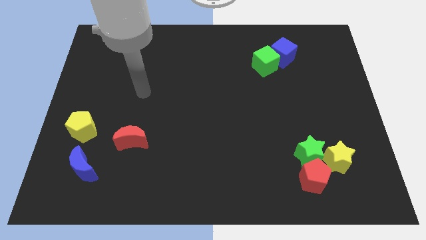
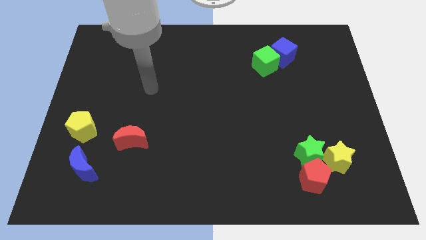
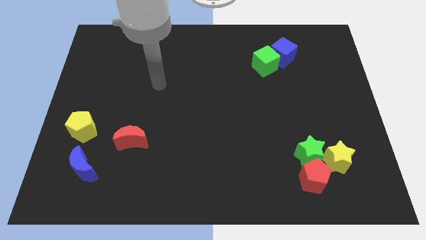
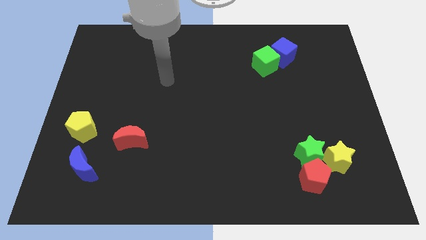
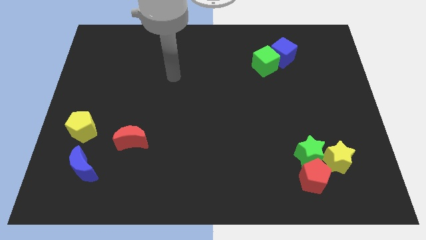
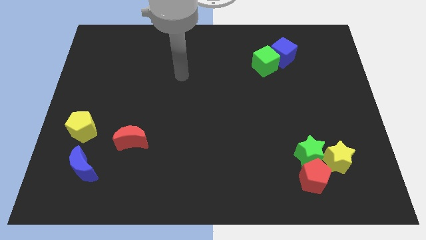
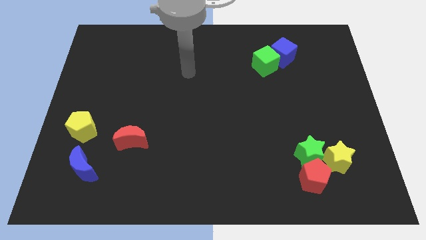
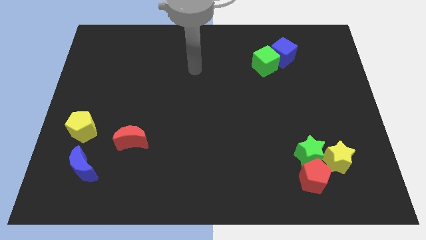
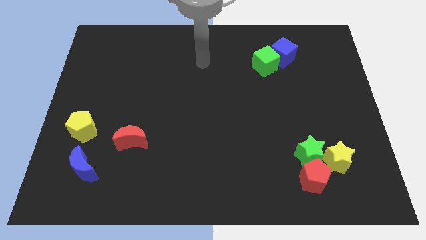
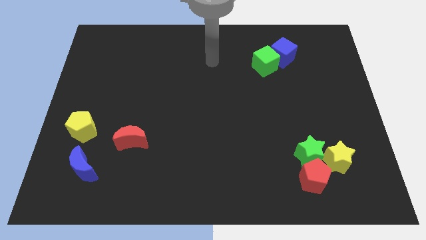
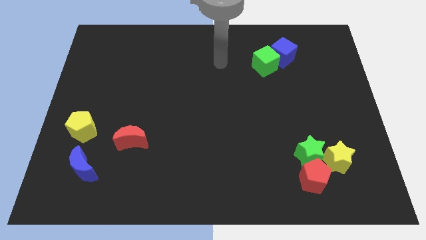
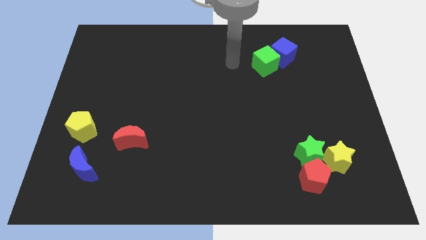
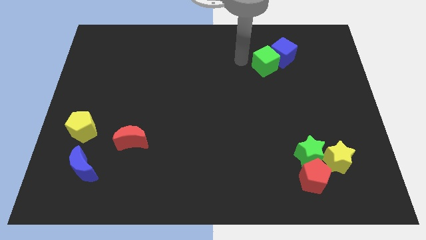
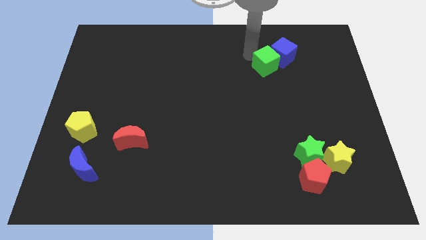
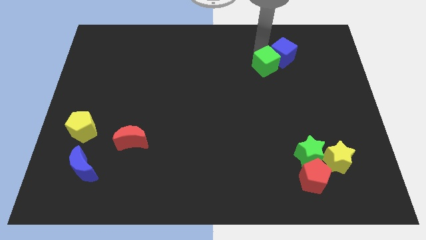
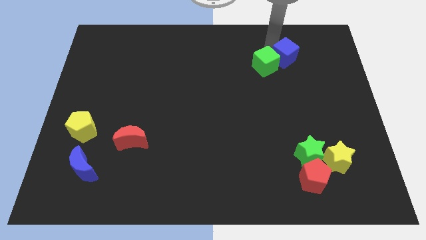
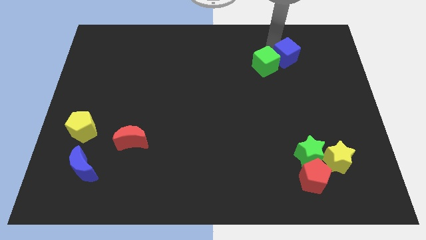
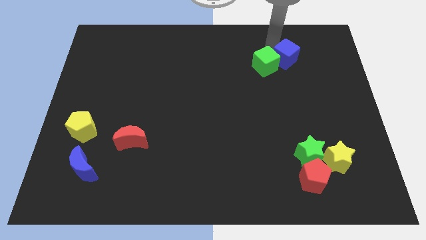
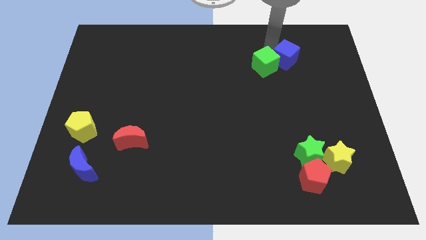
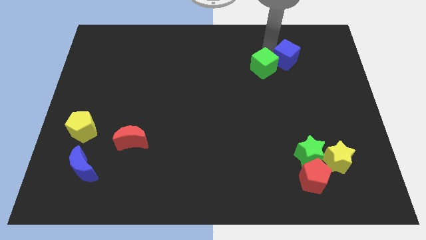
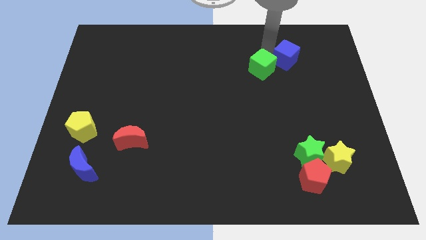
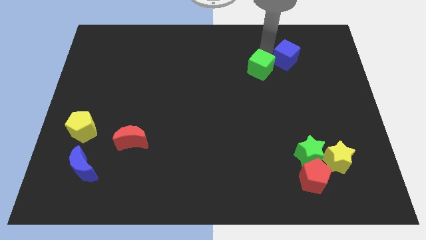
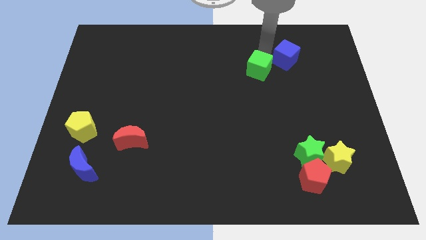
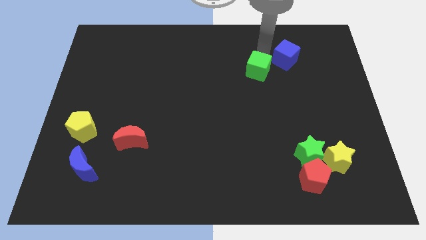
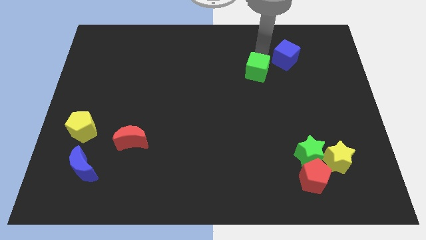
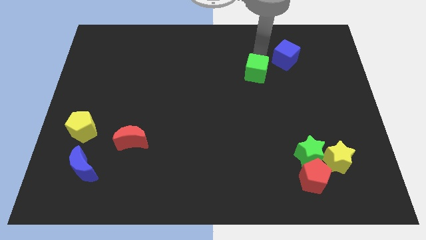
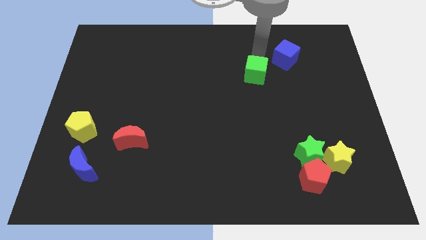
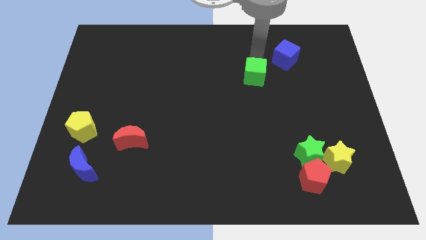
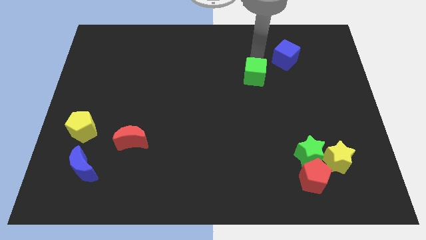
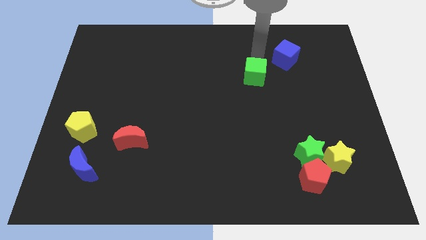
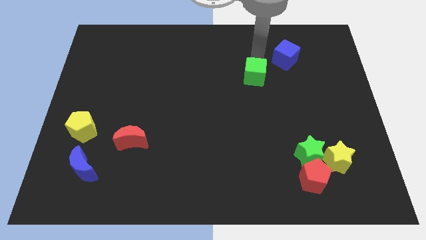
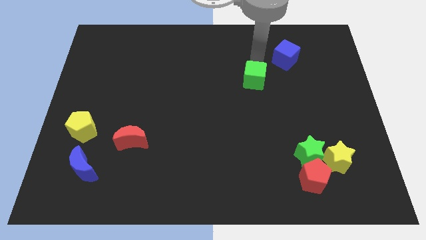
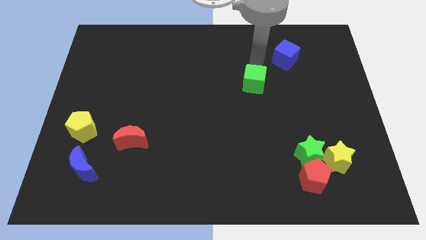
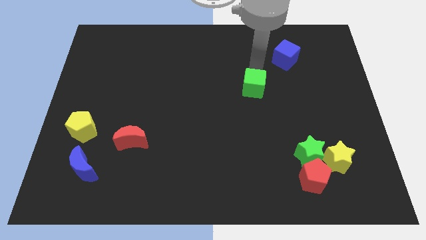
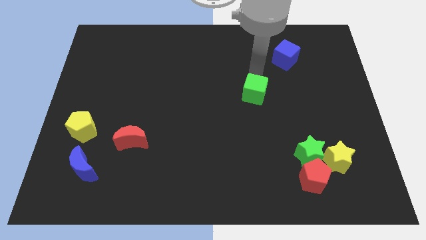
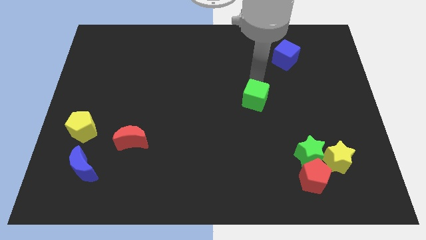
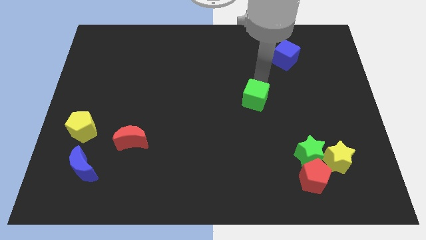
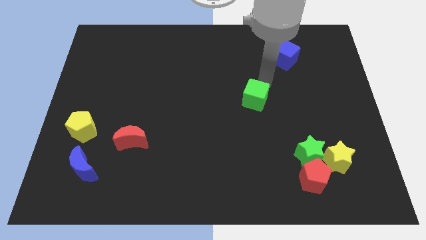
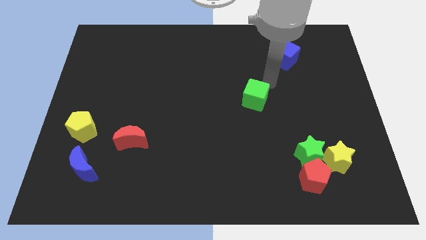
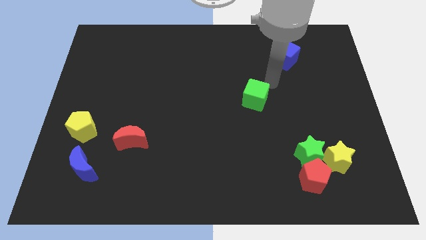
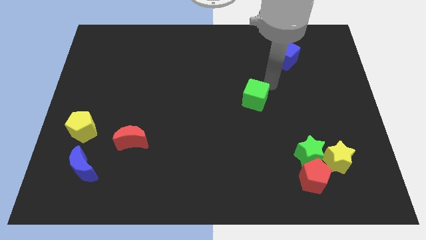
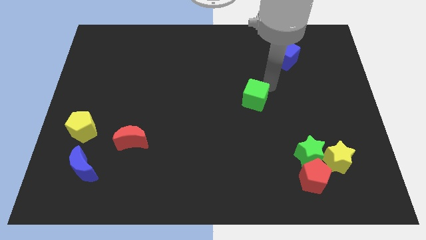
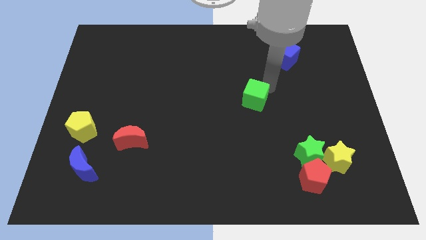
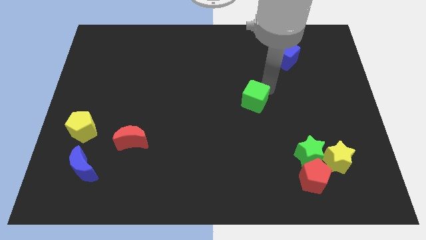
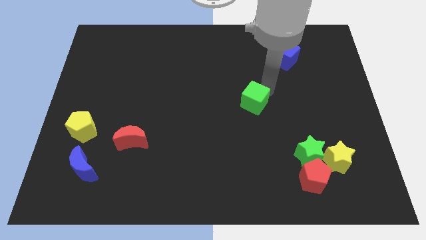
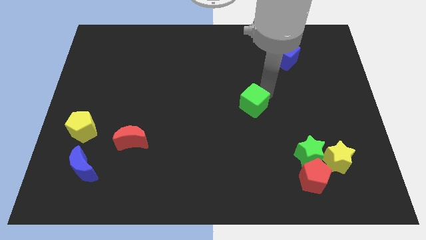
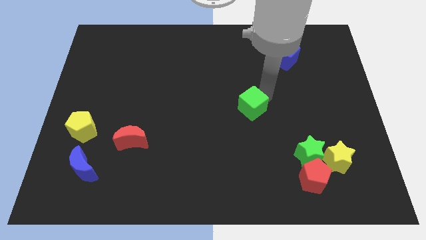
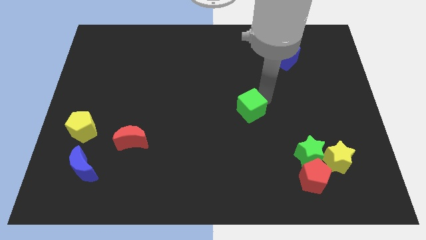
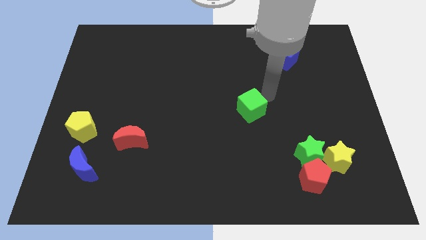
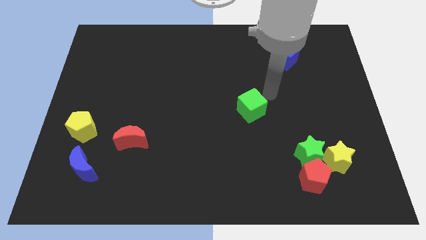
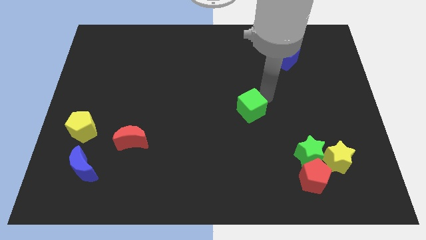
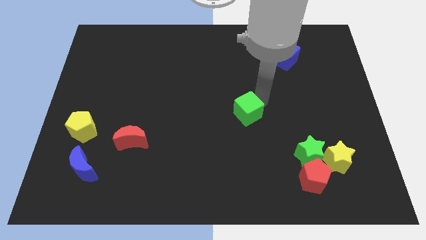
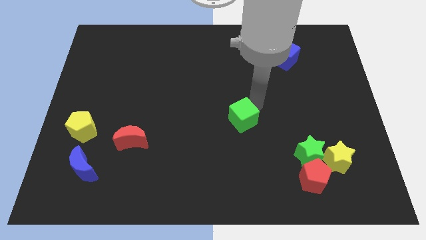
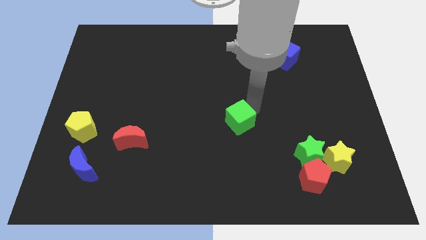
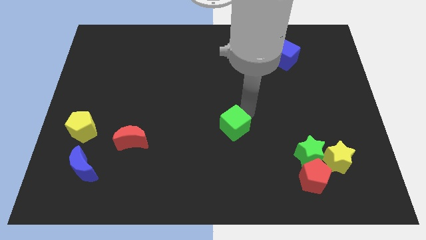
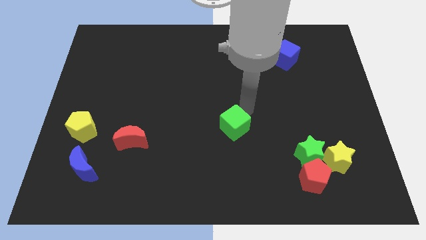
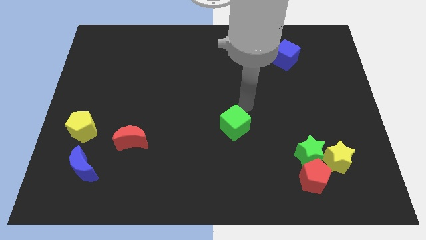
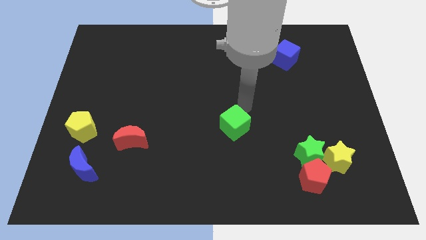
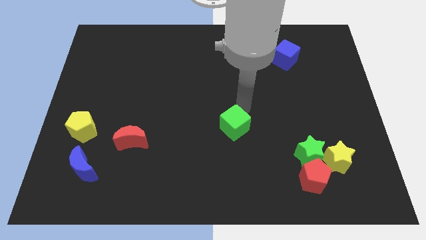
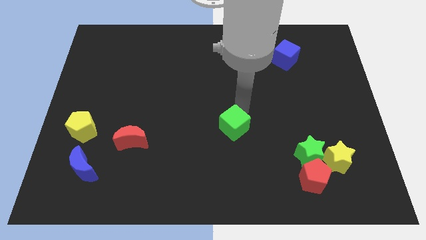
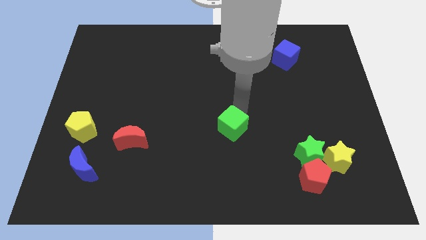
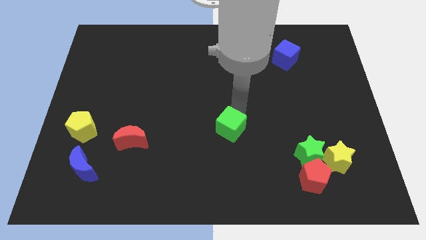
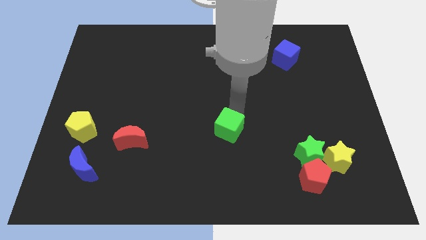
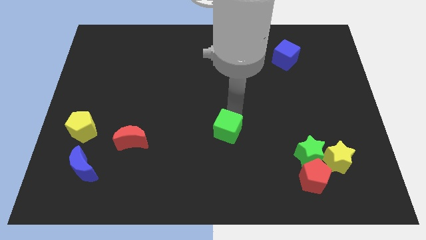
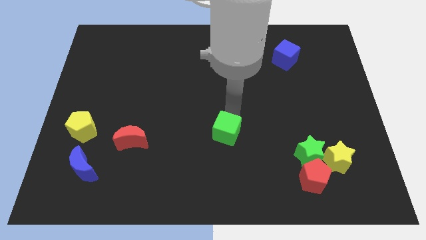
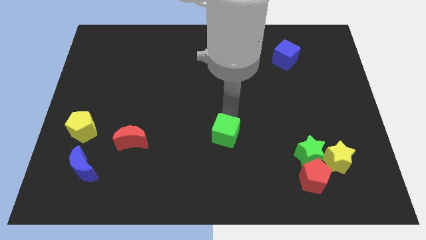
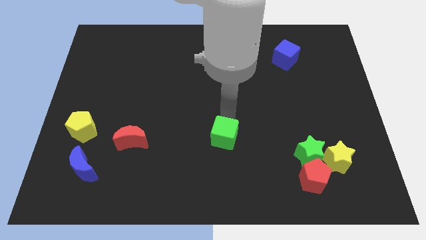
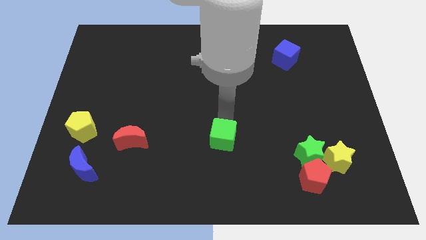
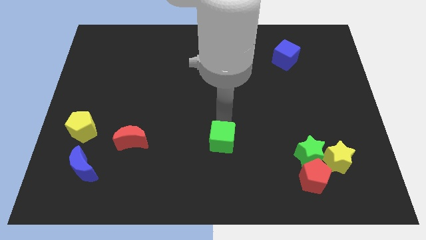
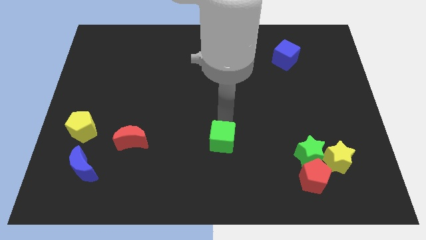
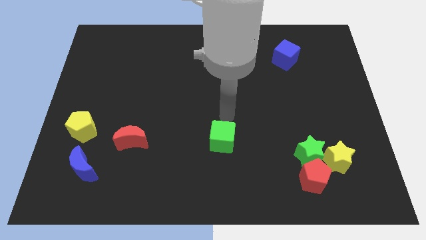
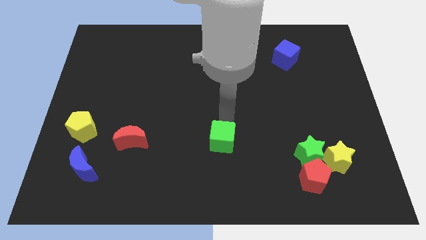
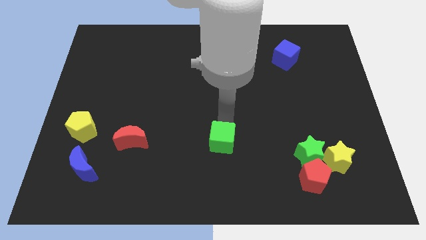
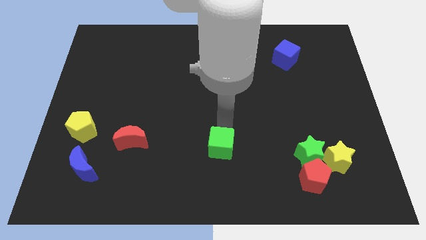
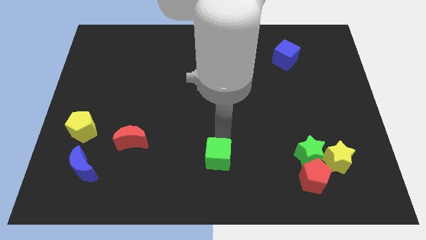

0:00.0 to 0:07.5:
put the green cube to the bottom side
